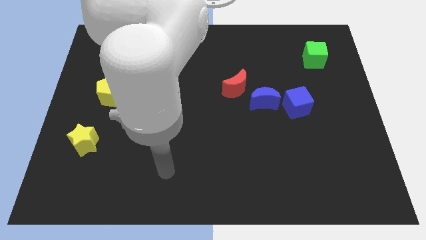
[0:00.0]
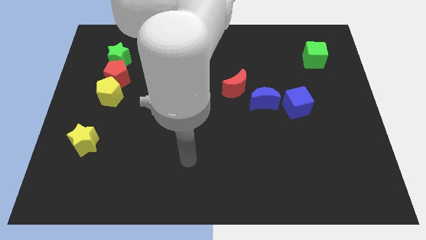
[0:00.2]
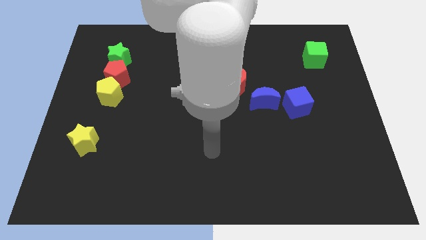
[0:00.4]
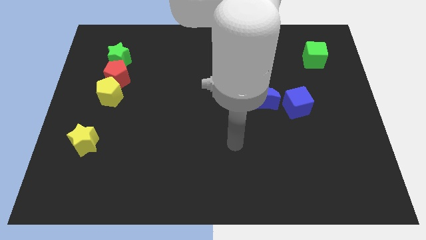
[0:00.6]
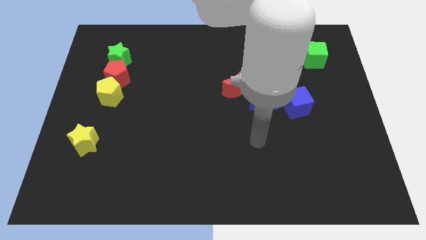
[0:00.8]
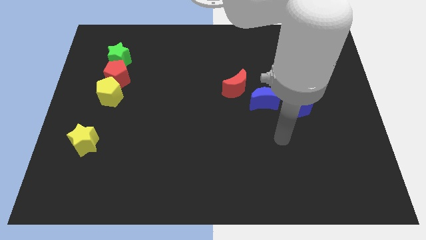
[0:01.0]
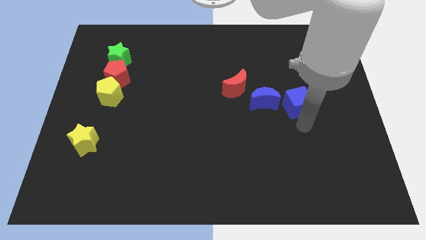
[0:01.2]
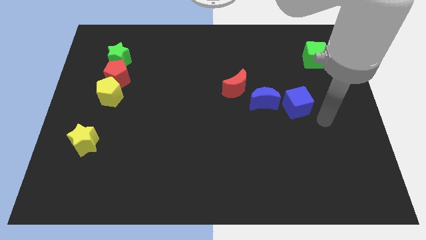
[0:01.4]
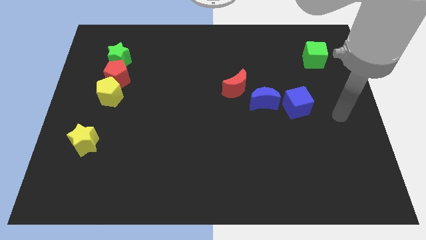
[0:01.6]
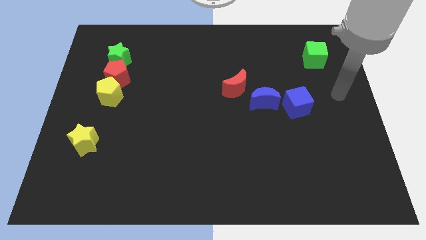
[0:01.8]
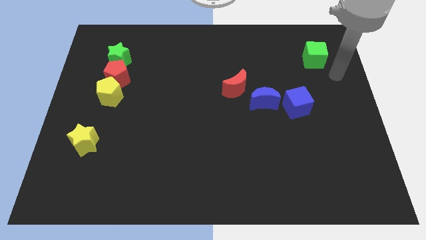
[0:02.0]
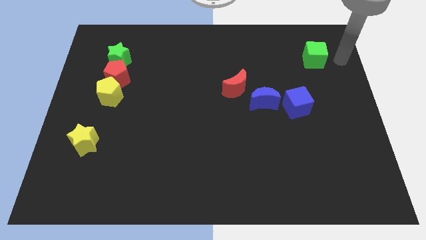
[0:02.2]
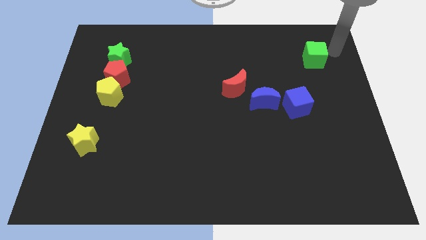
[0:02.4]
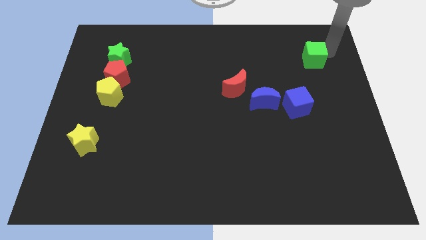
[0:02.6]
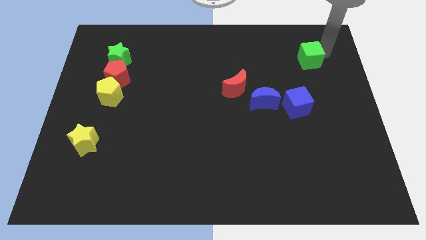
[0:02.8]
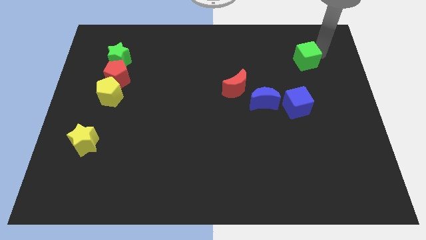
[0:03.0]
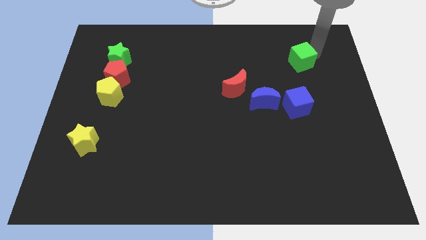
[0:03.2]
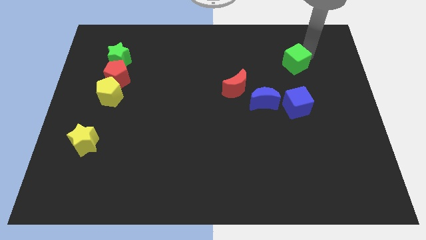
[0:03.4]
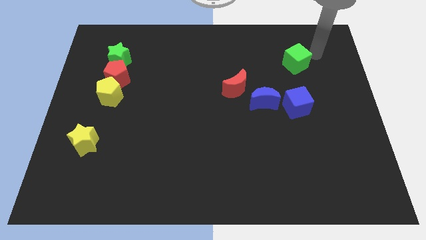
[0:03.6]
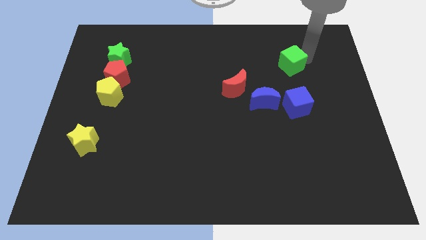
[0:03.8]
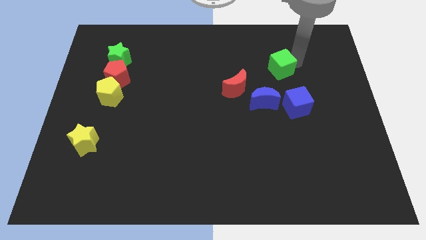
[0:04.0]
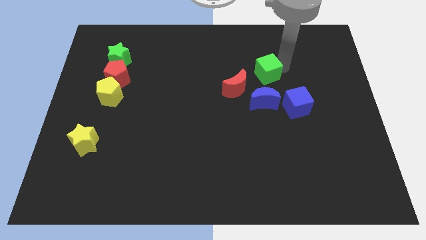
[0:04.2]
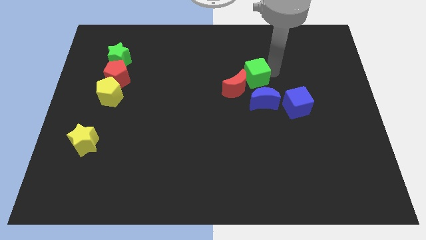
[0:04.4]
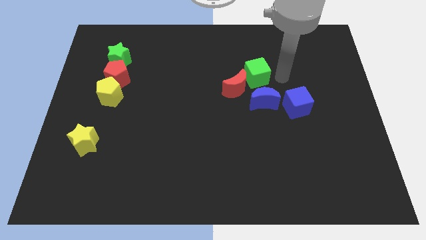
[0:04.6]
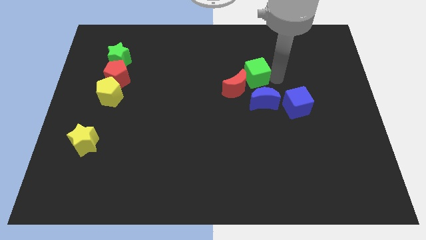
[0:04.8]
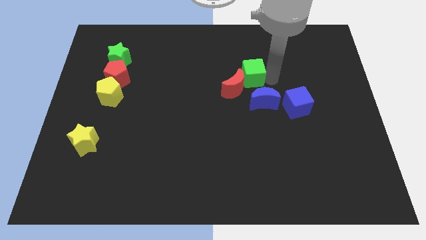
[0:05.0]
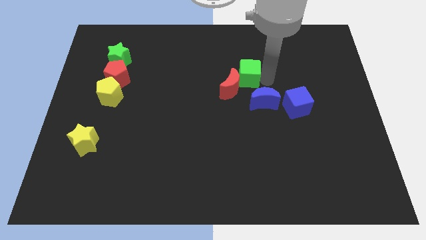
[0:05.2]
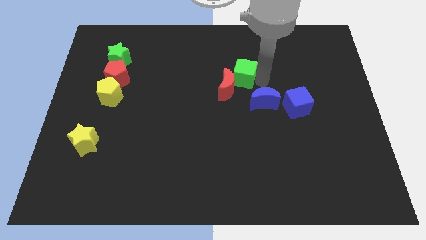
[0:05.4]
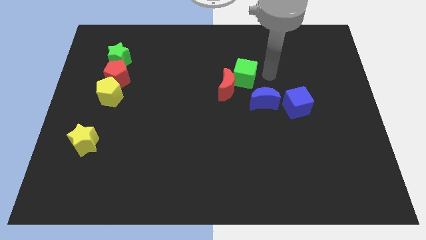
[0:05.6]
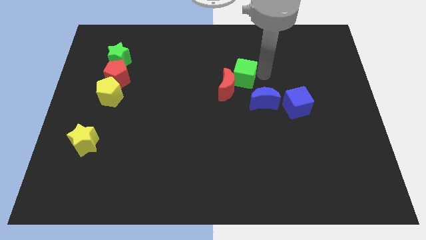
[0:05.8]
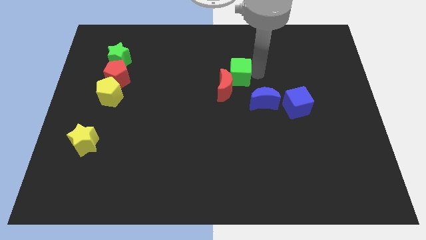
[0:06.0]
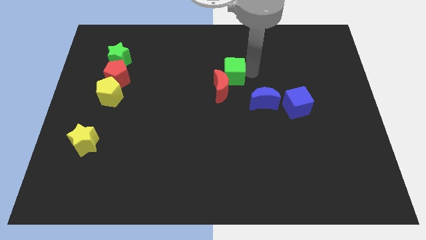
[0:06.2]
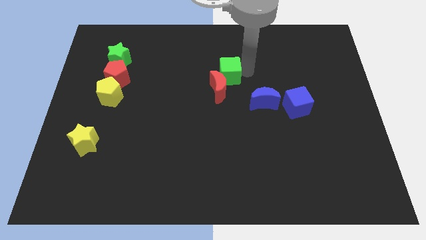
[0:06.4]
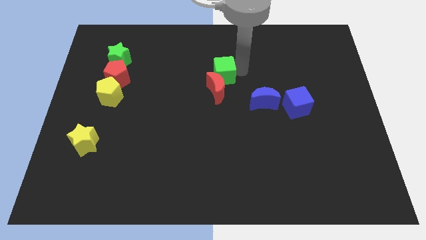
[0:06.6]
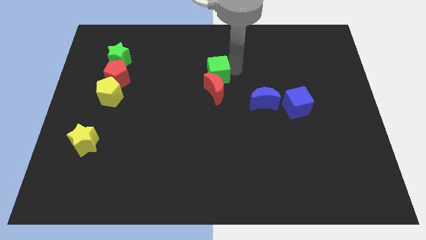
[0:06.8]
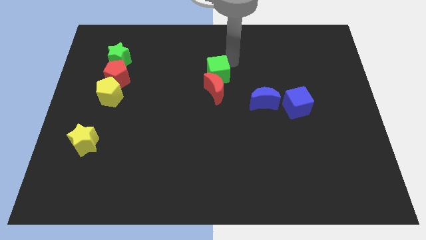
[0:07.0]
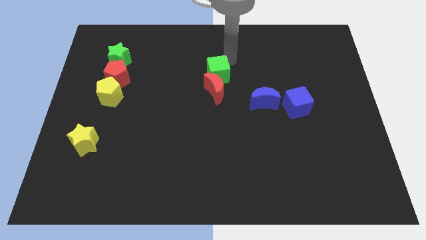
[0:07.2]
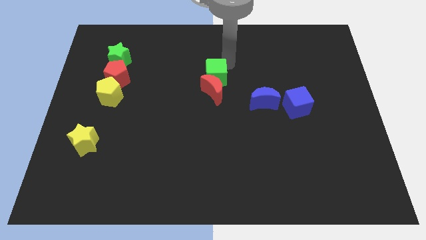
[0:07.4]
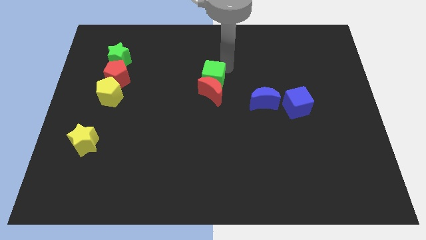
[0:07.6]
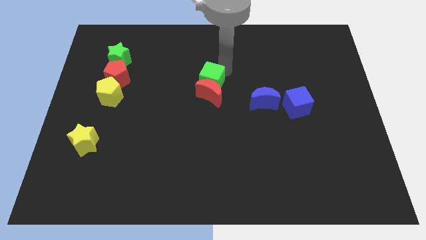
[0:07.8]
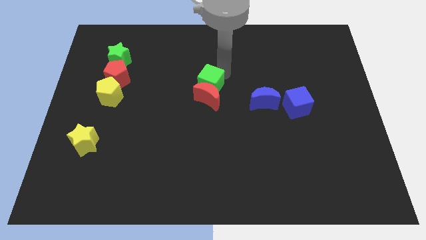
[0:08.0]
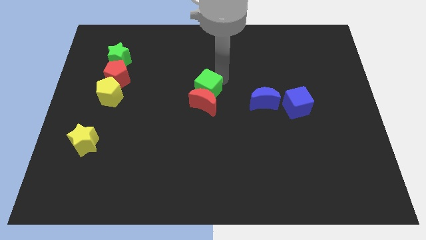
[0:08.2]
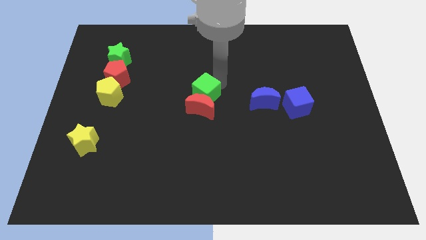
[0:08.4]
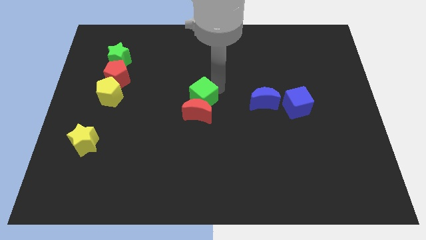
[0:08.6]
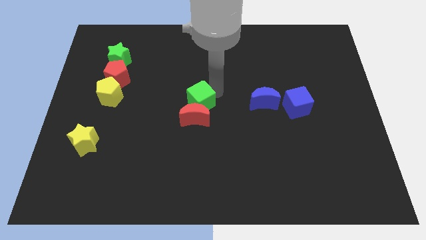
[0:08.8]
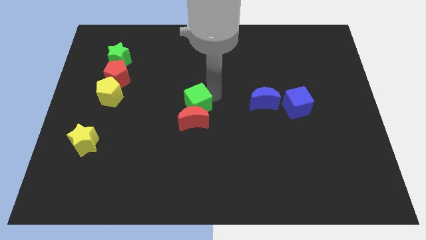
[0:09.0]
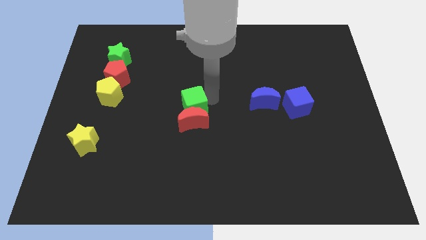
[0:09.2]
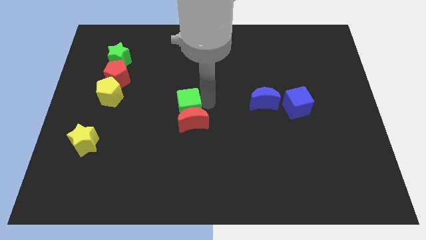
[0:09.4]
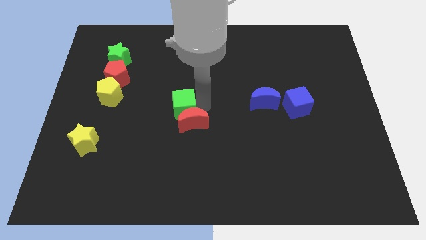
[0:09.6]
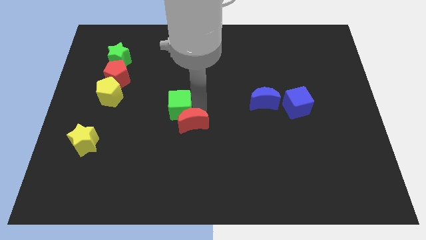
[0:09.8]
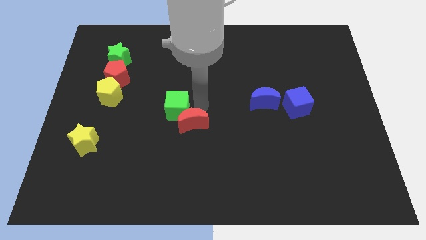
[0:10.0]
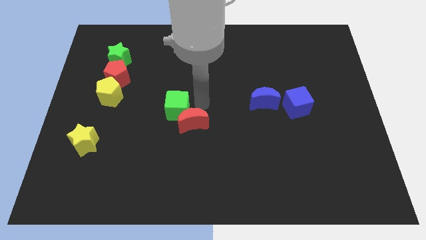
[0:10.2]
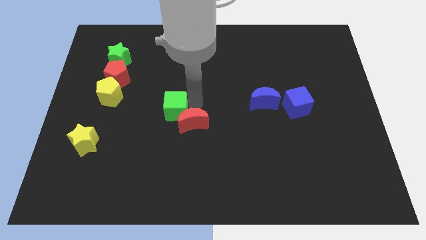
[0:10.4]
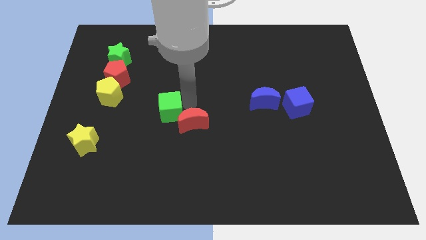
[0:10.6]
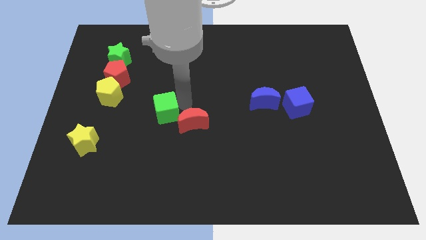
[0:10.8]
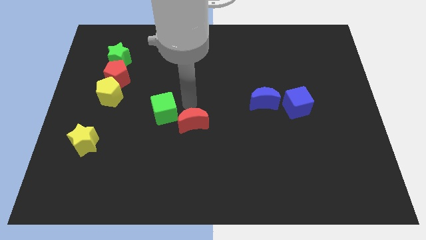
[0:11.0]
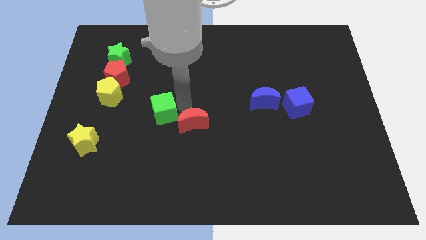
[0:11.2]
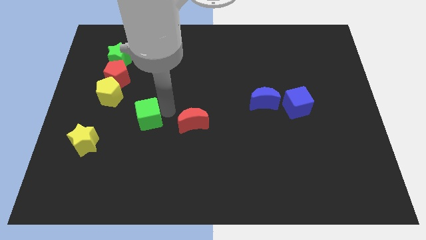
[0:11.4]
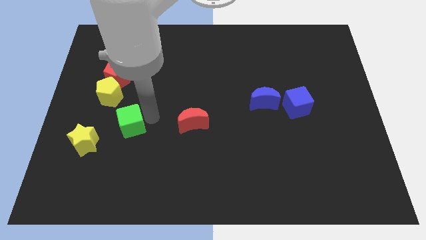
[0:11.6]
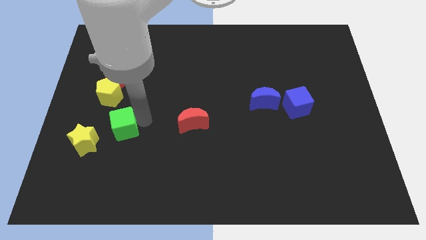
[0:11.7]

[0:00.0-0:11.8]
put the green cube to the bottom of the yellow pentagon

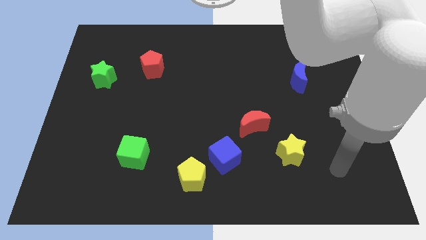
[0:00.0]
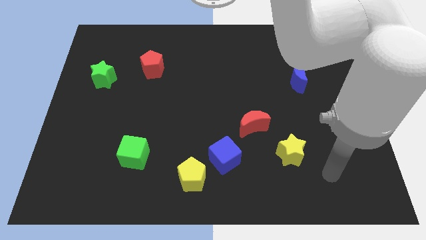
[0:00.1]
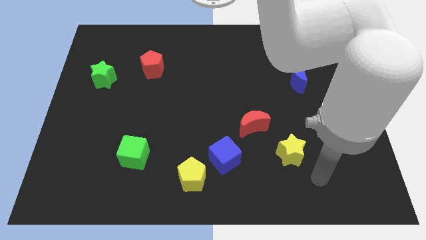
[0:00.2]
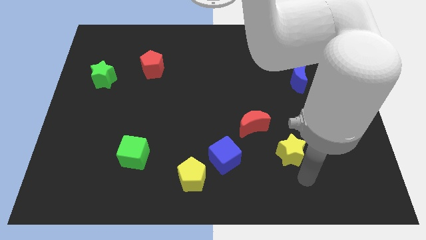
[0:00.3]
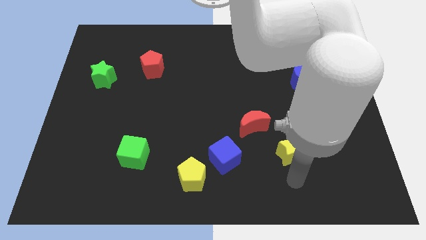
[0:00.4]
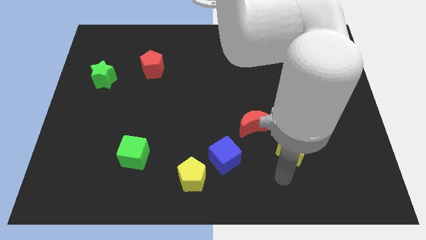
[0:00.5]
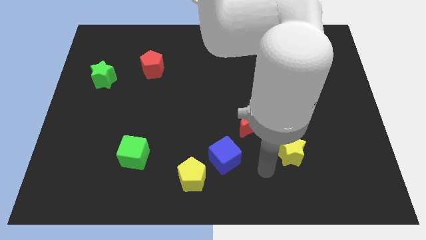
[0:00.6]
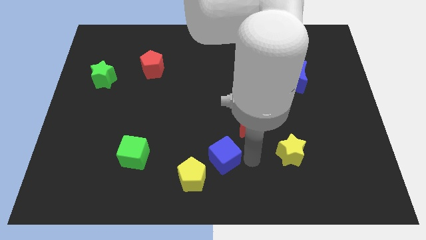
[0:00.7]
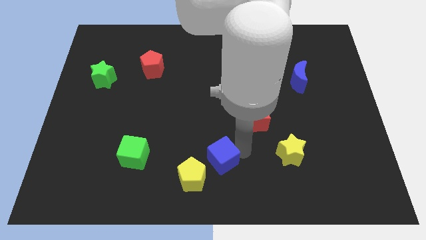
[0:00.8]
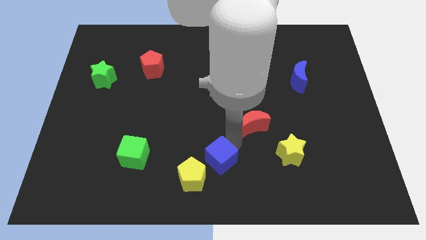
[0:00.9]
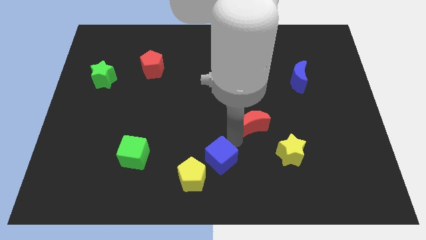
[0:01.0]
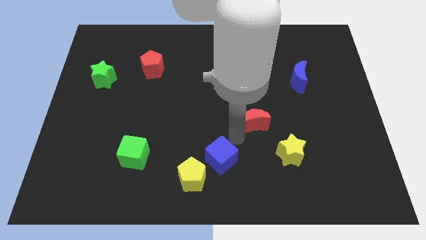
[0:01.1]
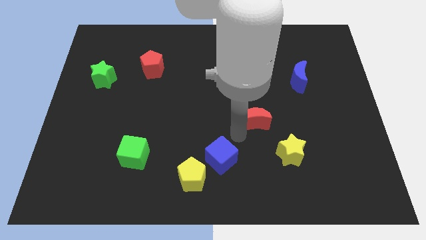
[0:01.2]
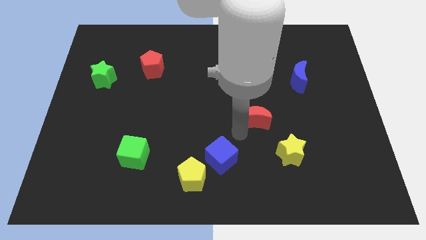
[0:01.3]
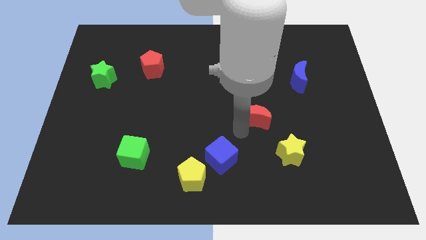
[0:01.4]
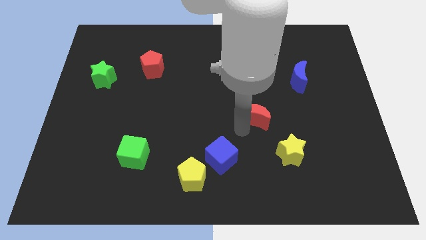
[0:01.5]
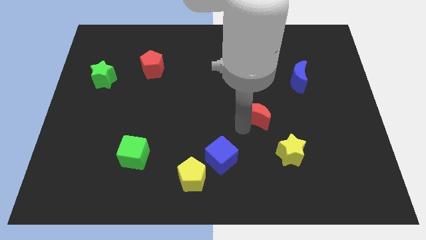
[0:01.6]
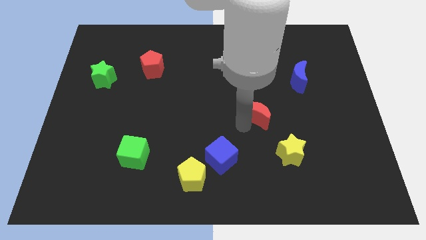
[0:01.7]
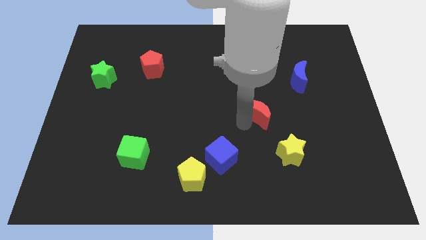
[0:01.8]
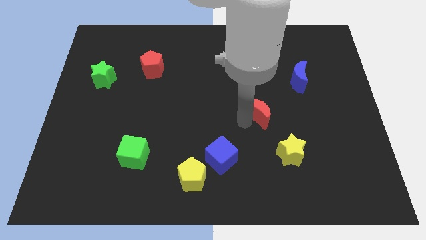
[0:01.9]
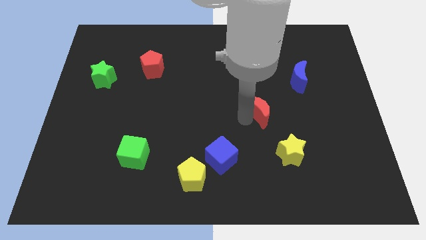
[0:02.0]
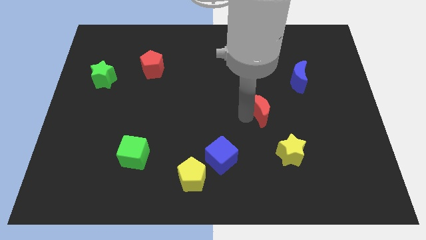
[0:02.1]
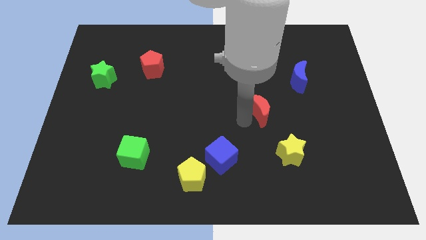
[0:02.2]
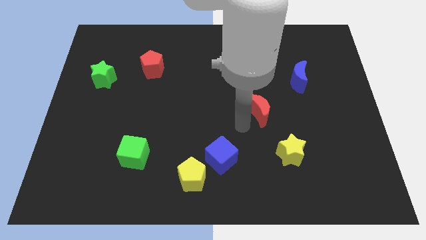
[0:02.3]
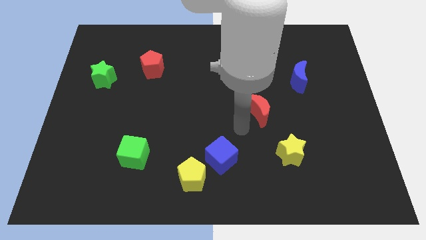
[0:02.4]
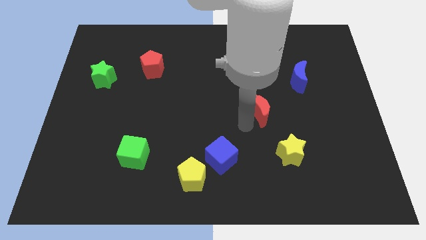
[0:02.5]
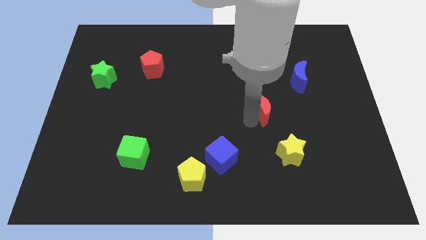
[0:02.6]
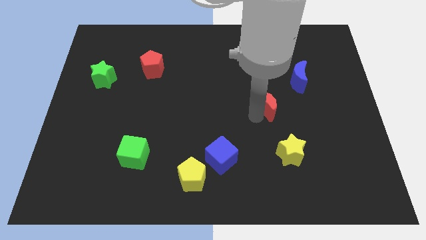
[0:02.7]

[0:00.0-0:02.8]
slide the red moon diagonally down and to the left of the blue moon
